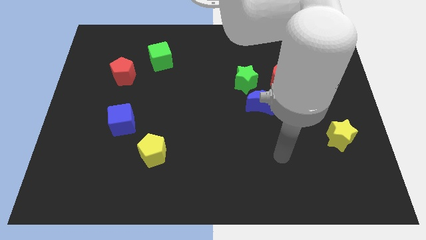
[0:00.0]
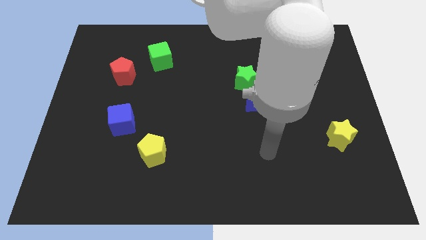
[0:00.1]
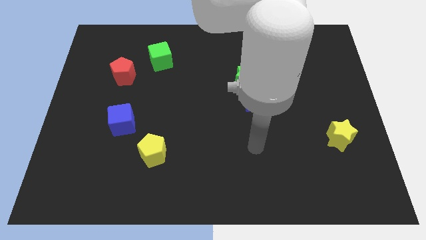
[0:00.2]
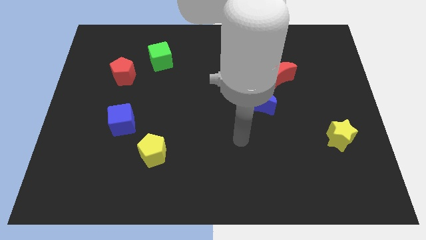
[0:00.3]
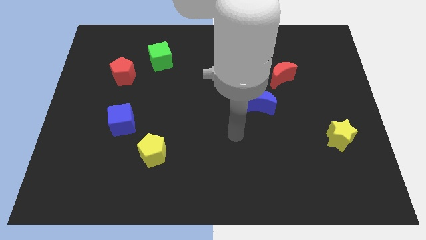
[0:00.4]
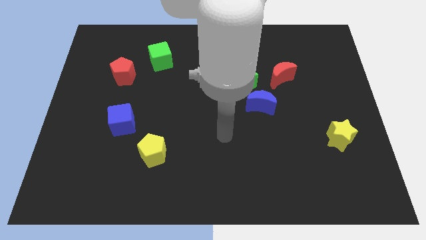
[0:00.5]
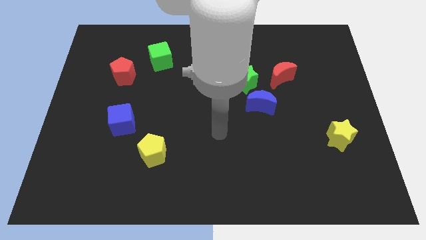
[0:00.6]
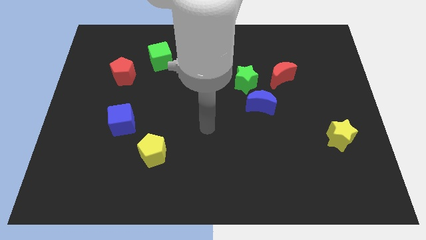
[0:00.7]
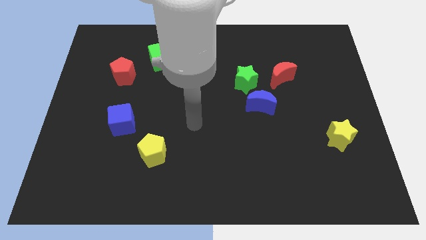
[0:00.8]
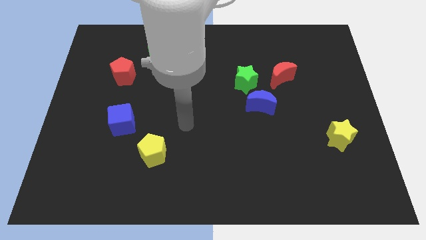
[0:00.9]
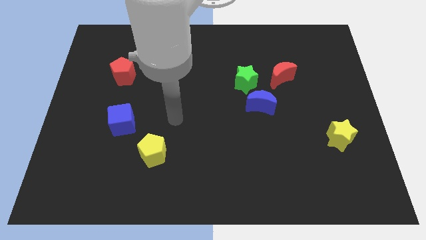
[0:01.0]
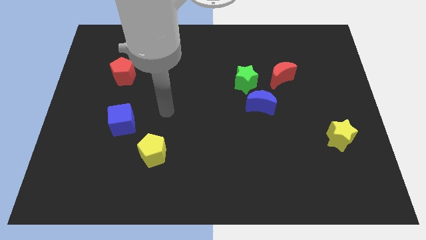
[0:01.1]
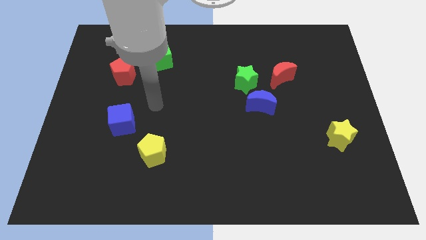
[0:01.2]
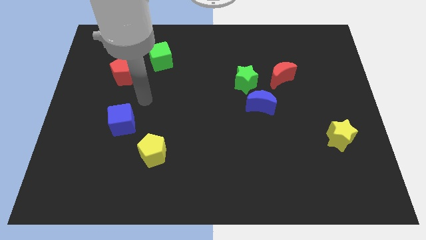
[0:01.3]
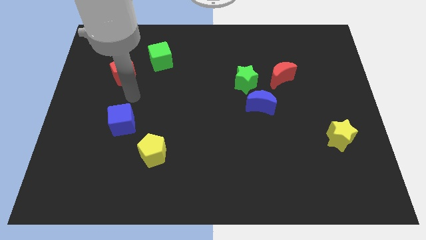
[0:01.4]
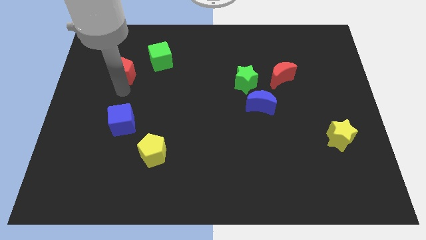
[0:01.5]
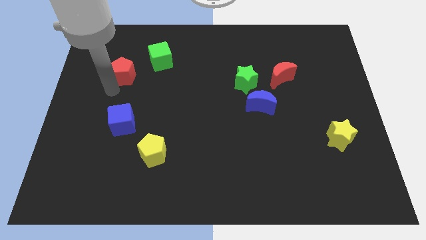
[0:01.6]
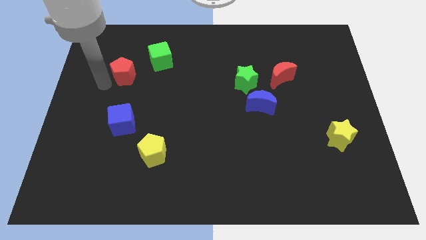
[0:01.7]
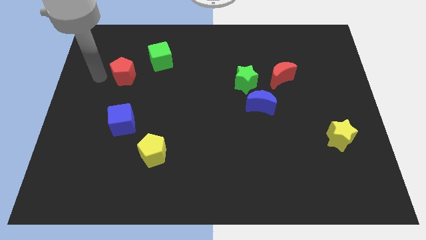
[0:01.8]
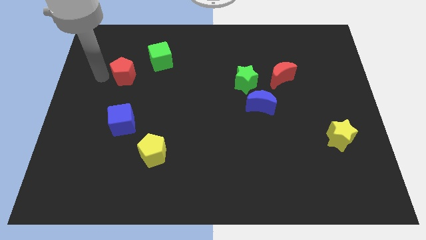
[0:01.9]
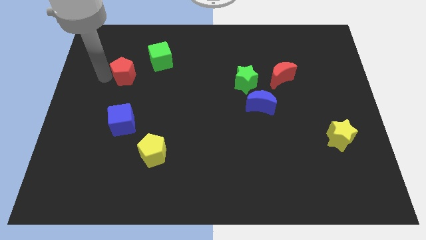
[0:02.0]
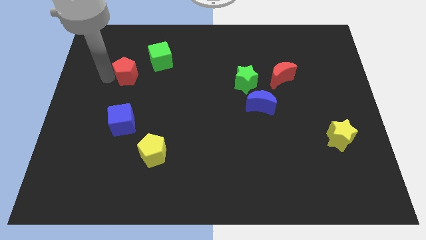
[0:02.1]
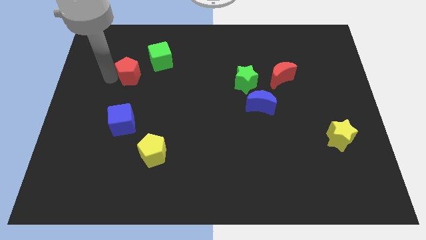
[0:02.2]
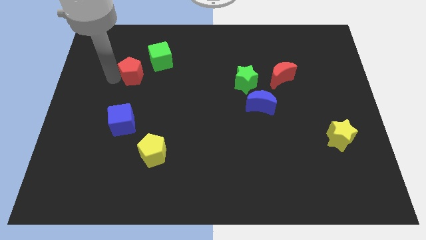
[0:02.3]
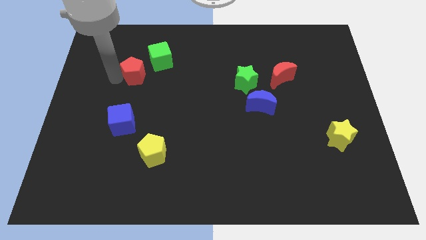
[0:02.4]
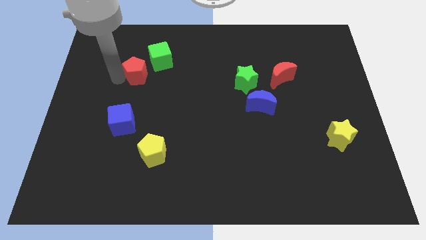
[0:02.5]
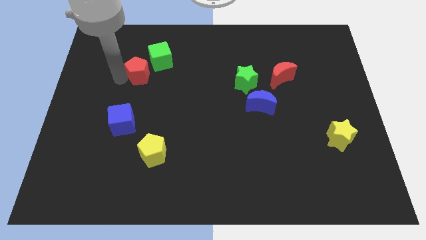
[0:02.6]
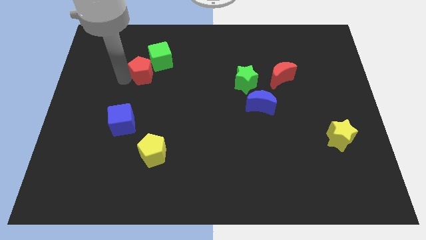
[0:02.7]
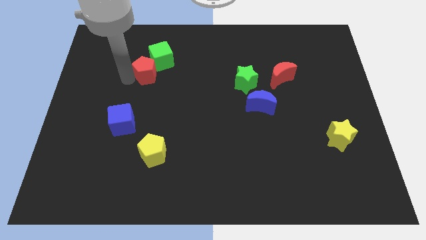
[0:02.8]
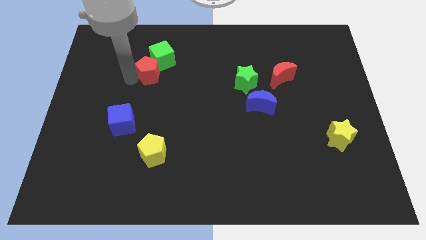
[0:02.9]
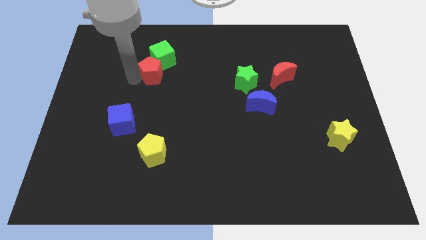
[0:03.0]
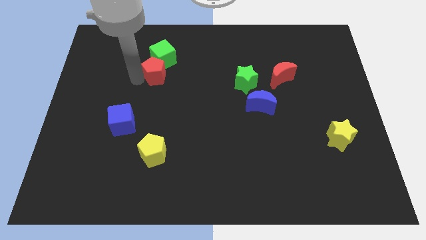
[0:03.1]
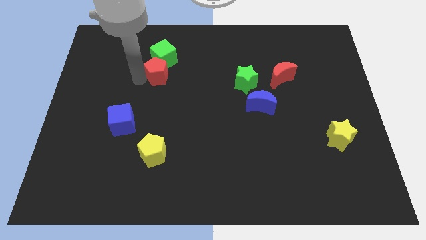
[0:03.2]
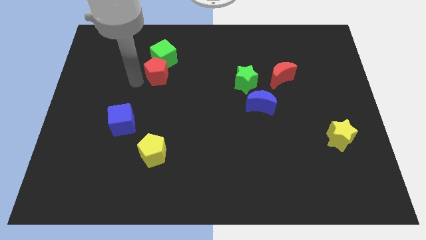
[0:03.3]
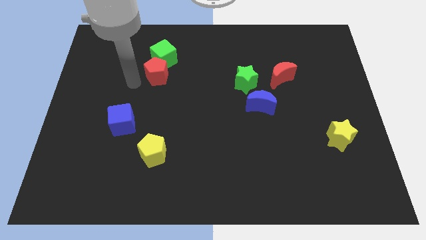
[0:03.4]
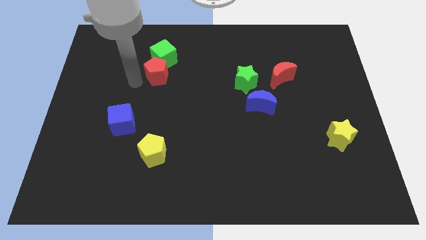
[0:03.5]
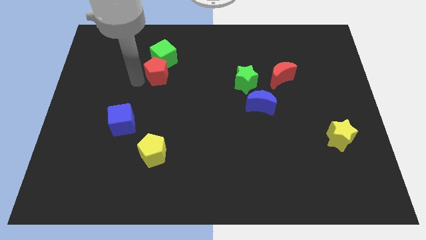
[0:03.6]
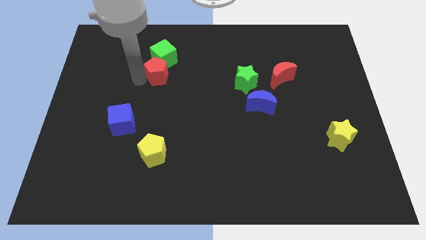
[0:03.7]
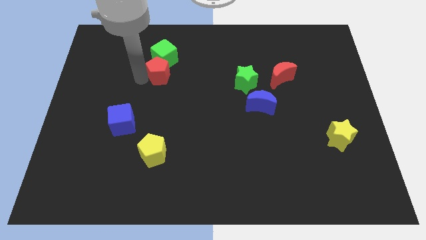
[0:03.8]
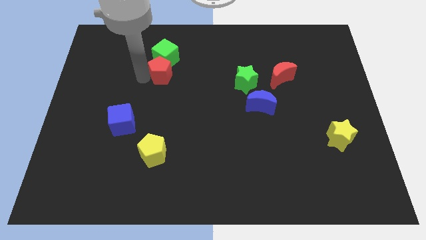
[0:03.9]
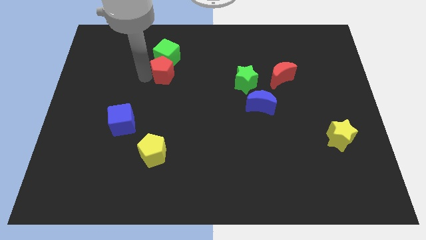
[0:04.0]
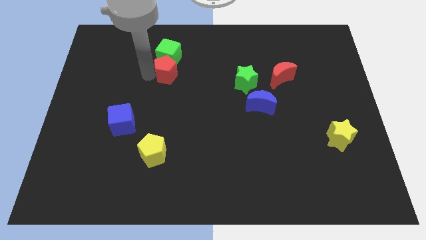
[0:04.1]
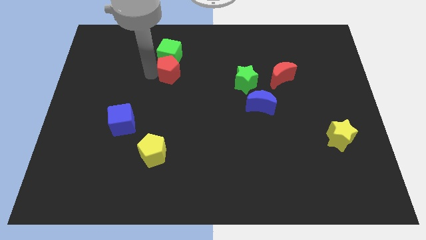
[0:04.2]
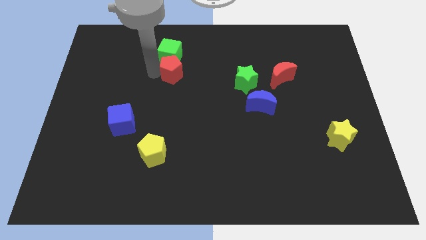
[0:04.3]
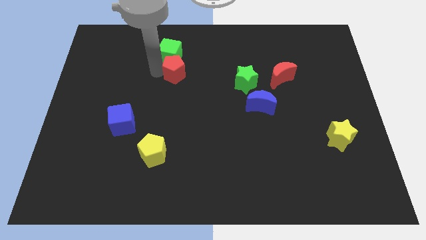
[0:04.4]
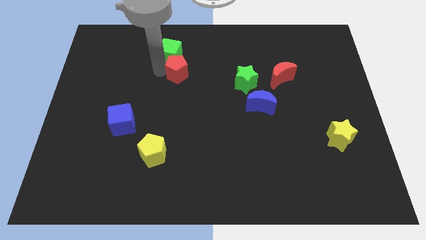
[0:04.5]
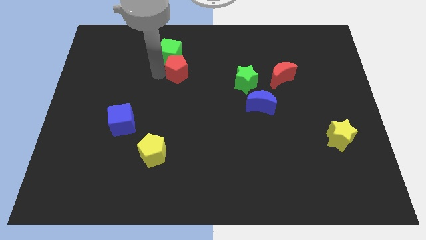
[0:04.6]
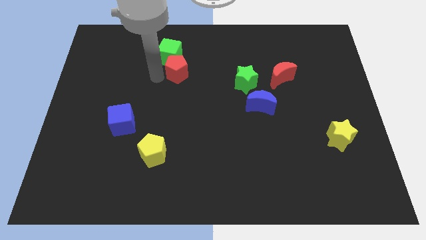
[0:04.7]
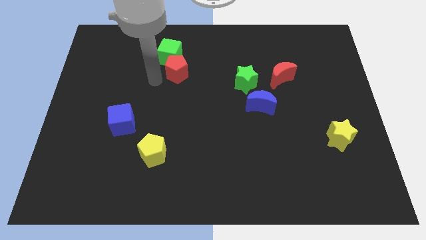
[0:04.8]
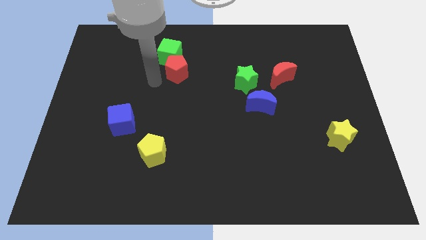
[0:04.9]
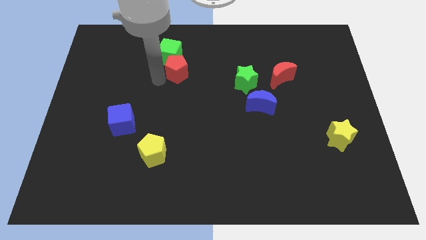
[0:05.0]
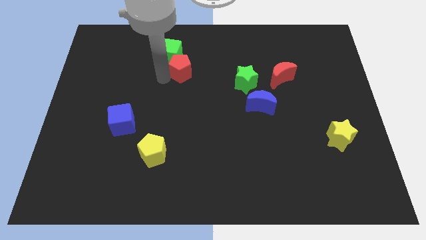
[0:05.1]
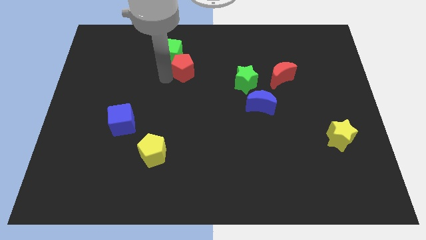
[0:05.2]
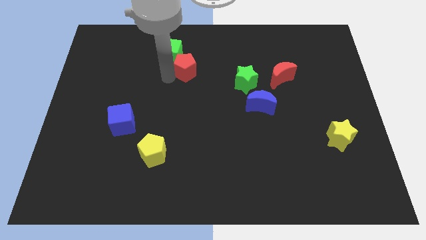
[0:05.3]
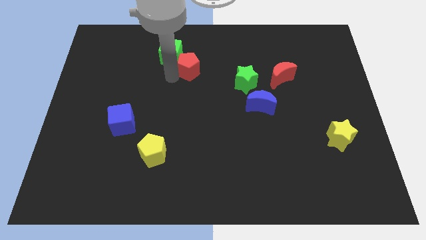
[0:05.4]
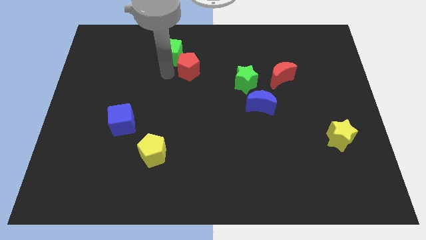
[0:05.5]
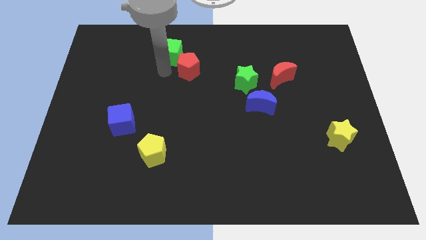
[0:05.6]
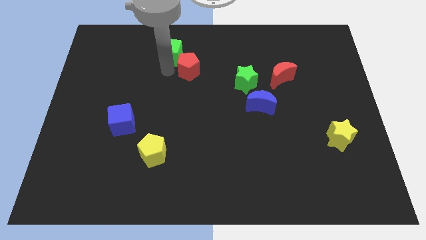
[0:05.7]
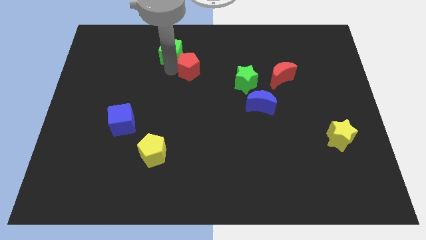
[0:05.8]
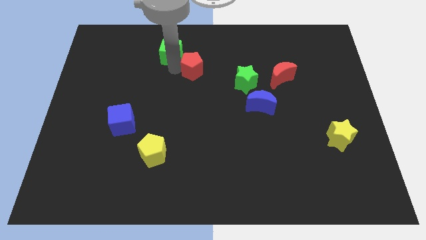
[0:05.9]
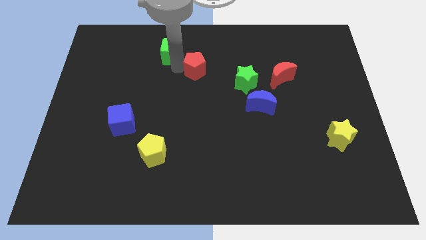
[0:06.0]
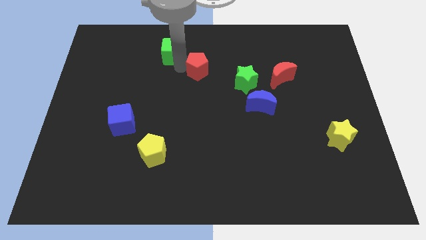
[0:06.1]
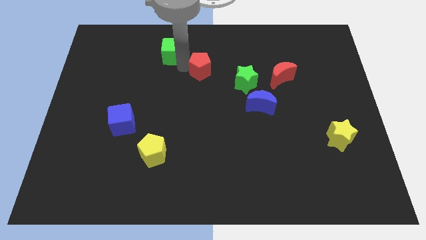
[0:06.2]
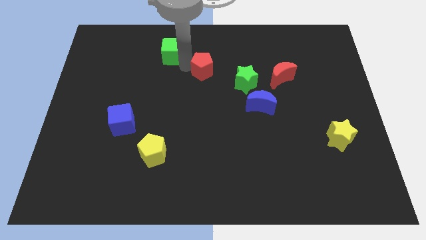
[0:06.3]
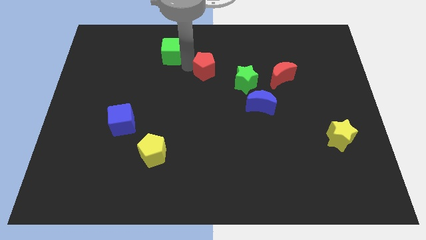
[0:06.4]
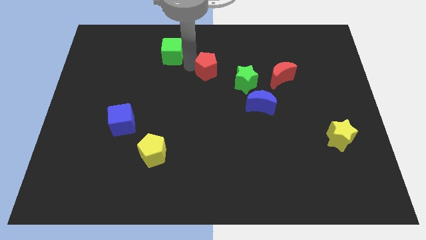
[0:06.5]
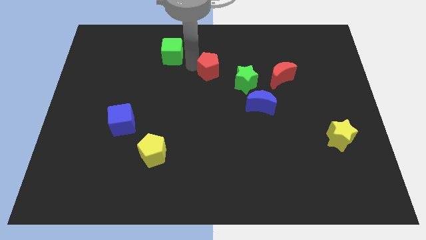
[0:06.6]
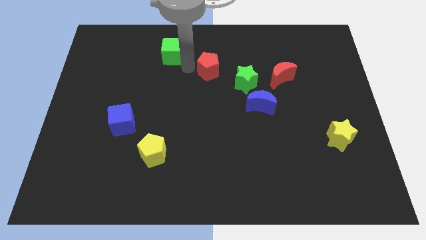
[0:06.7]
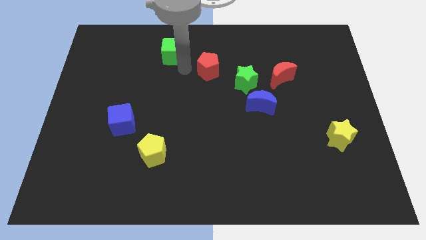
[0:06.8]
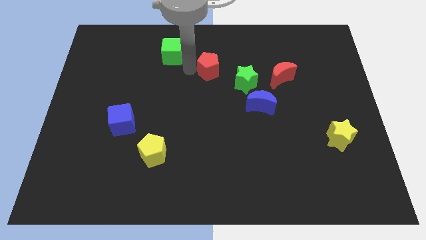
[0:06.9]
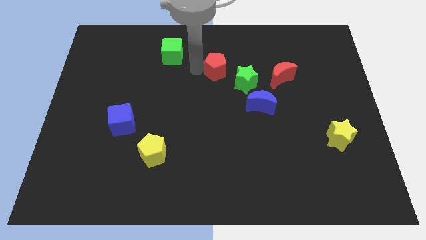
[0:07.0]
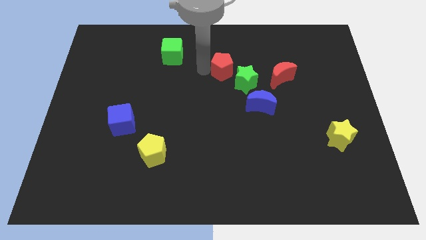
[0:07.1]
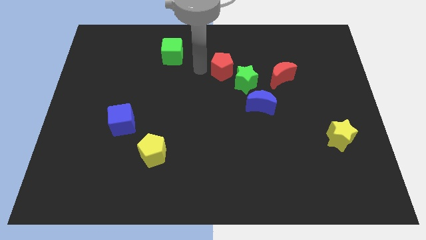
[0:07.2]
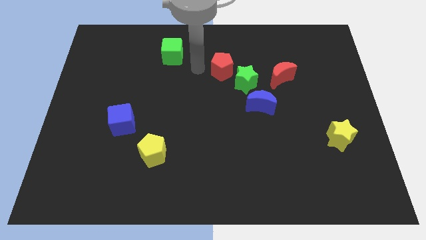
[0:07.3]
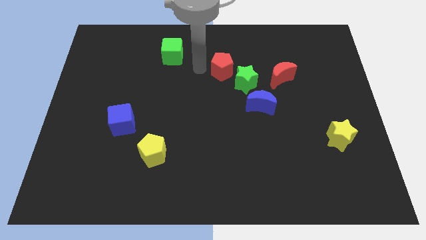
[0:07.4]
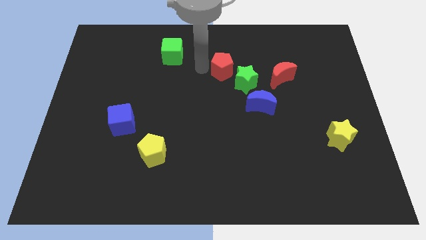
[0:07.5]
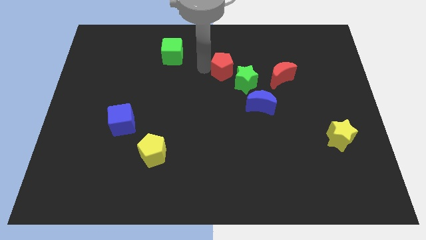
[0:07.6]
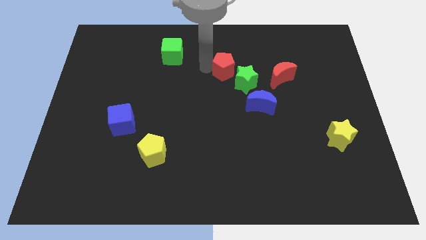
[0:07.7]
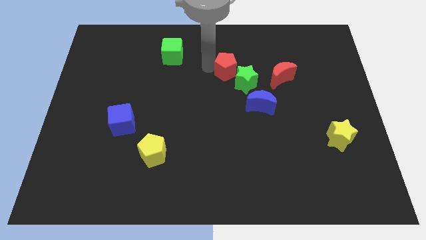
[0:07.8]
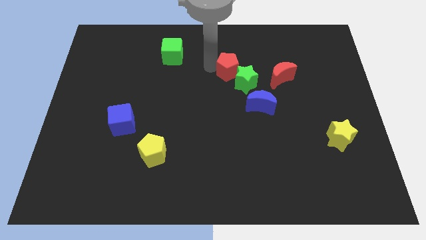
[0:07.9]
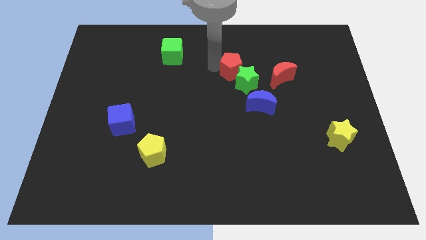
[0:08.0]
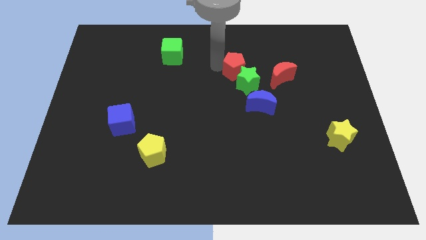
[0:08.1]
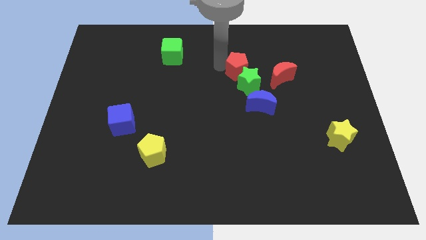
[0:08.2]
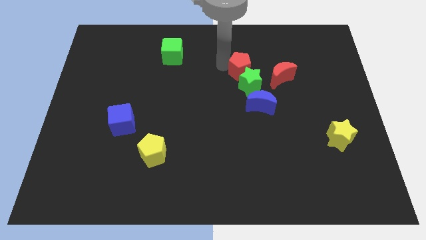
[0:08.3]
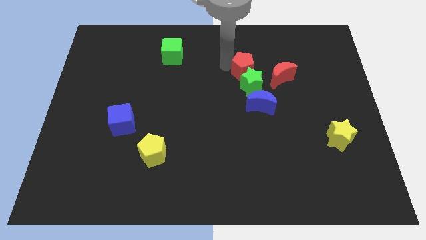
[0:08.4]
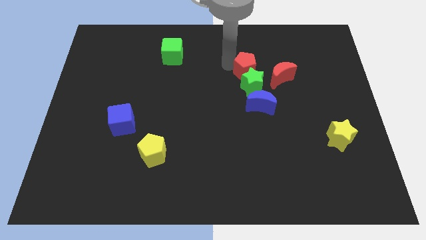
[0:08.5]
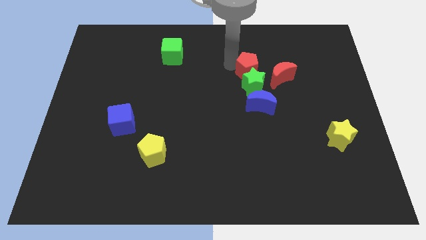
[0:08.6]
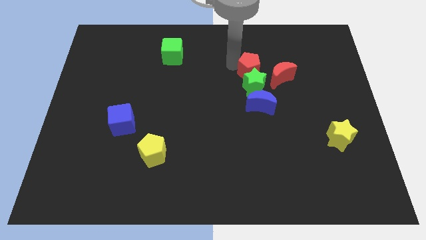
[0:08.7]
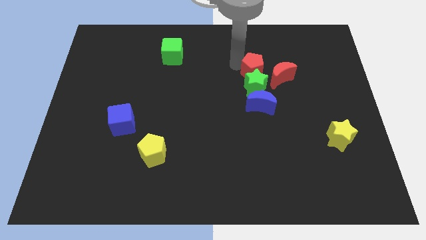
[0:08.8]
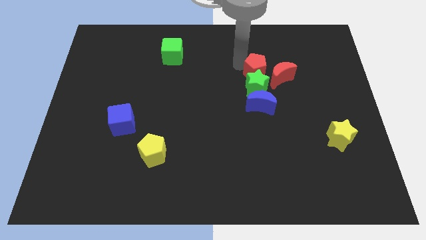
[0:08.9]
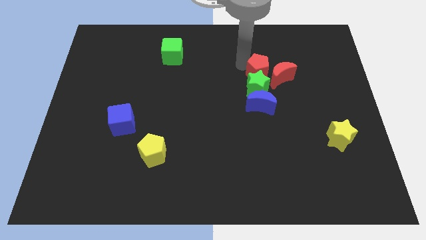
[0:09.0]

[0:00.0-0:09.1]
move the red pentagon towards the red moon
